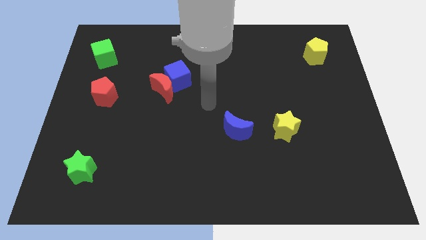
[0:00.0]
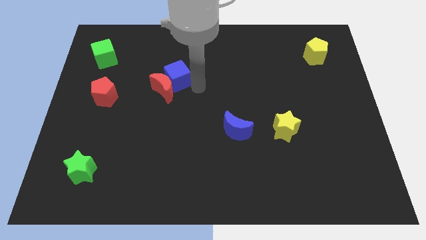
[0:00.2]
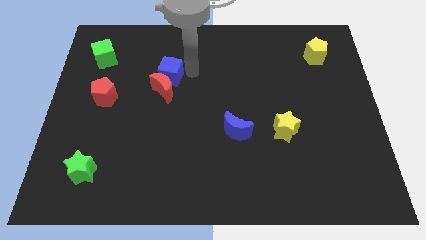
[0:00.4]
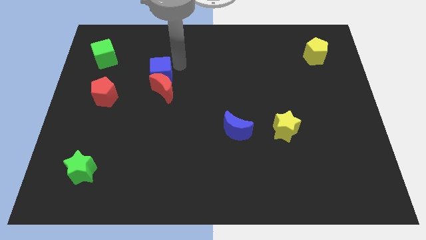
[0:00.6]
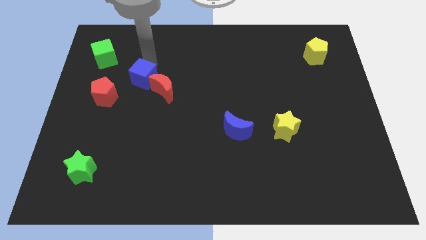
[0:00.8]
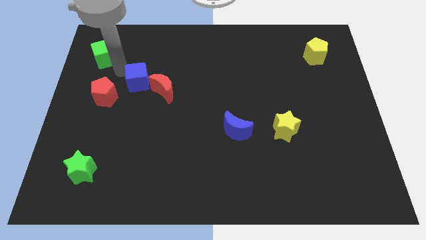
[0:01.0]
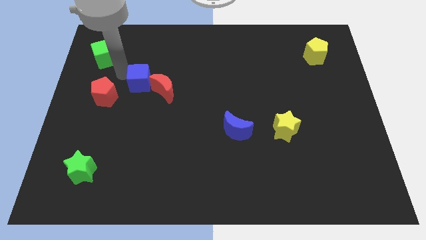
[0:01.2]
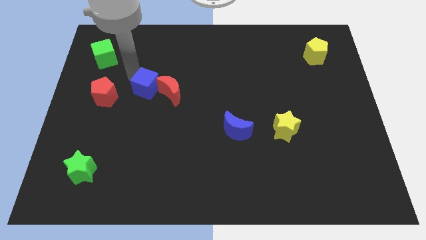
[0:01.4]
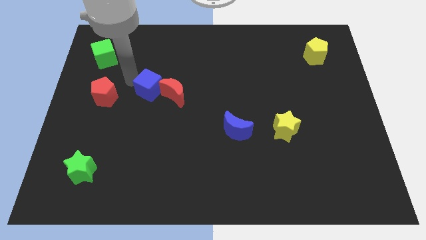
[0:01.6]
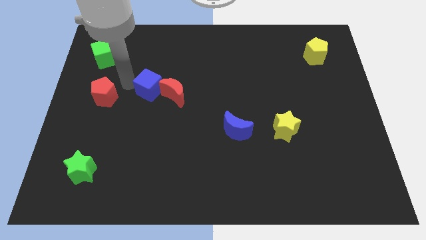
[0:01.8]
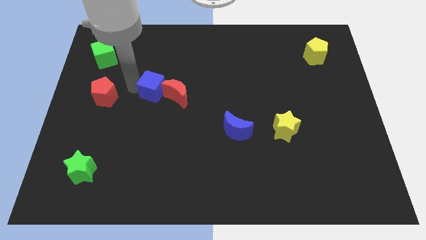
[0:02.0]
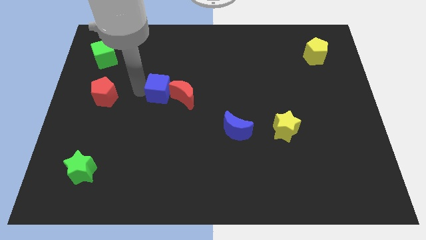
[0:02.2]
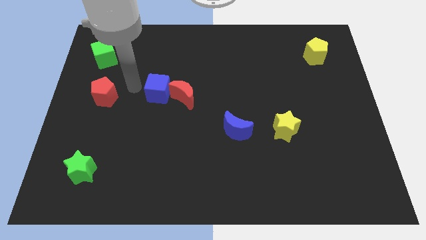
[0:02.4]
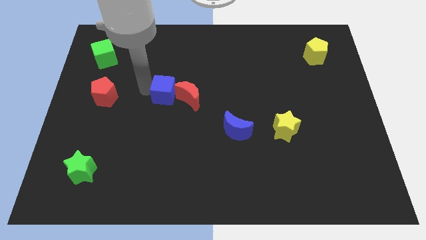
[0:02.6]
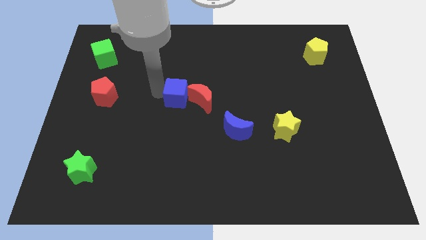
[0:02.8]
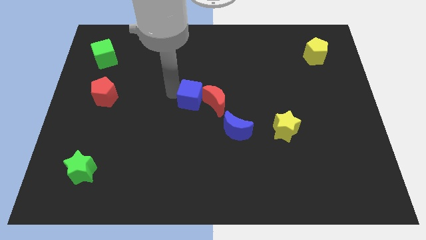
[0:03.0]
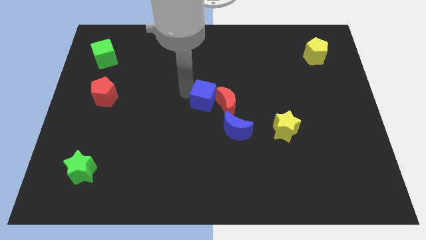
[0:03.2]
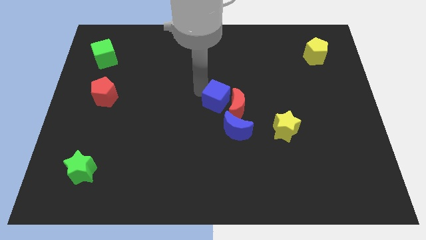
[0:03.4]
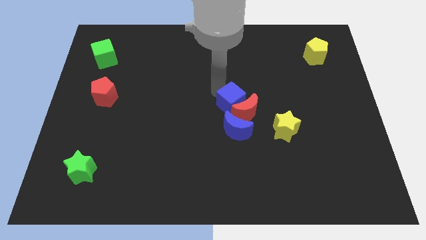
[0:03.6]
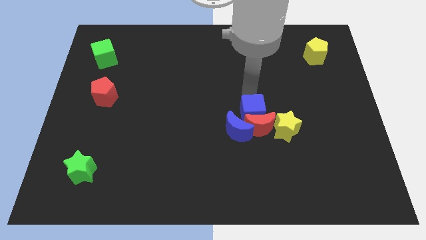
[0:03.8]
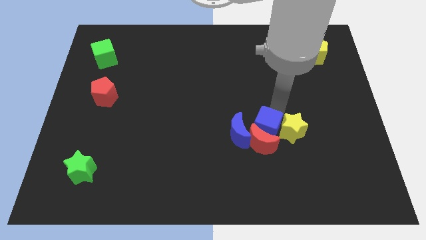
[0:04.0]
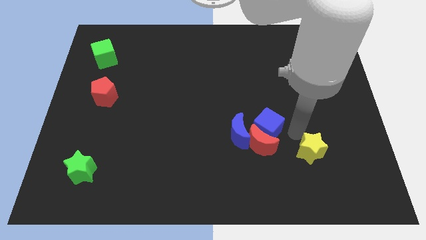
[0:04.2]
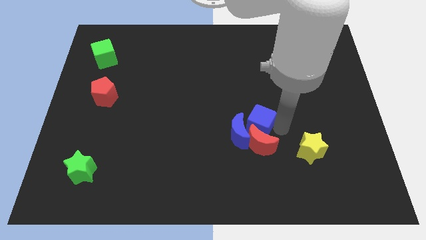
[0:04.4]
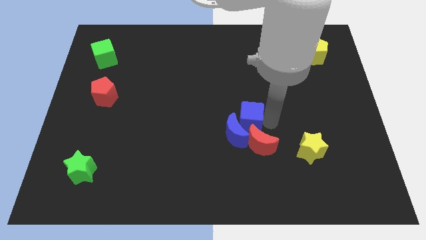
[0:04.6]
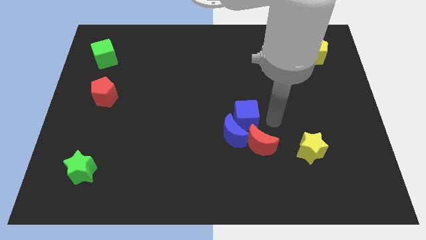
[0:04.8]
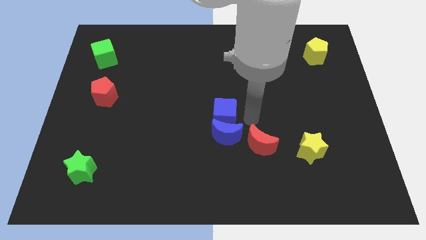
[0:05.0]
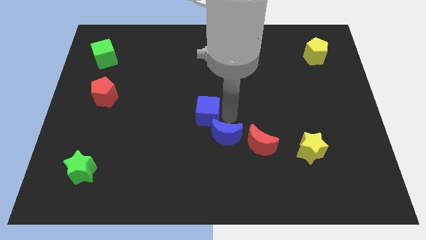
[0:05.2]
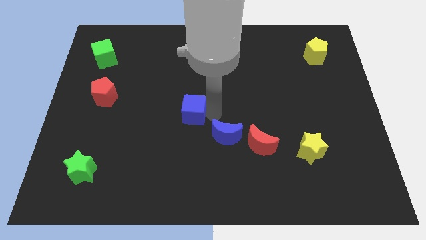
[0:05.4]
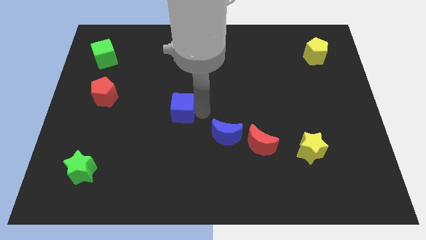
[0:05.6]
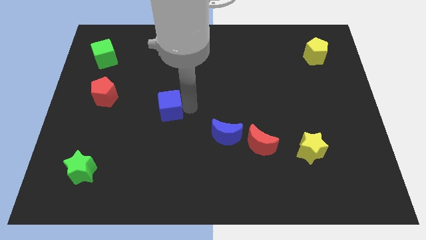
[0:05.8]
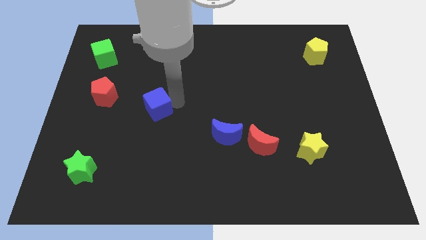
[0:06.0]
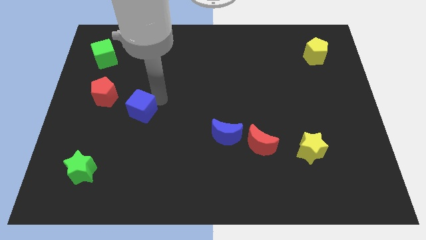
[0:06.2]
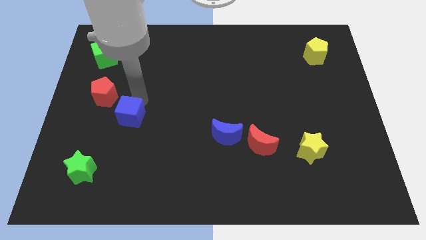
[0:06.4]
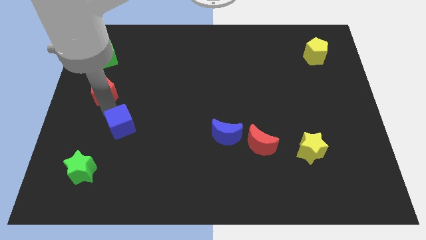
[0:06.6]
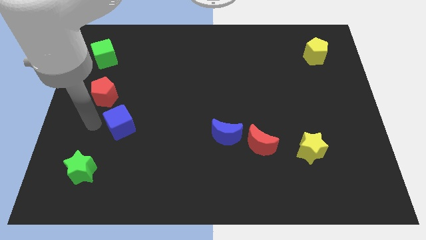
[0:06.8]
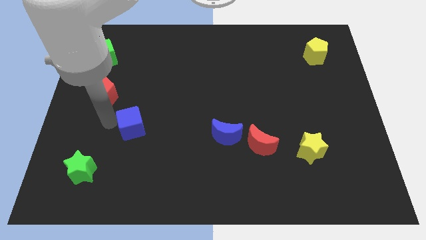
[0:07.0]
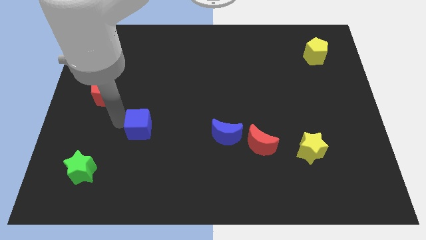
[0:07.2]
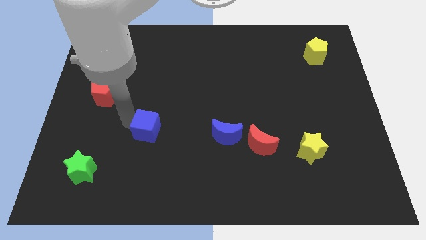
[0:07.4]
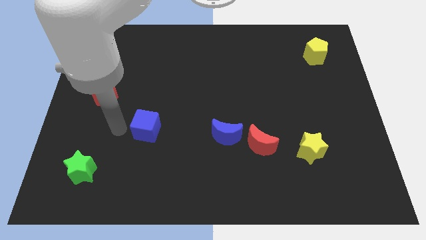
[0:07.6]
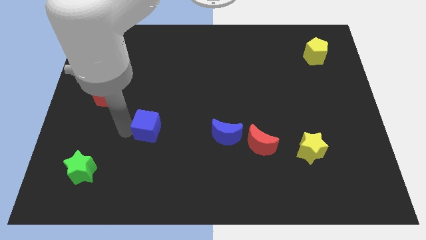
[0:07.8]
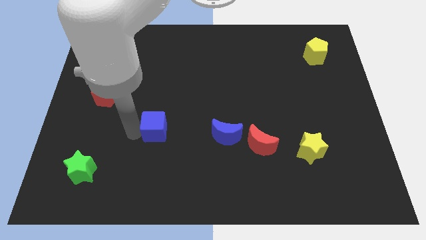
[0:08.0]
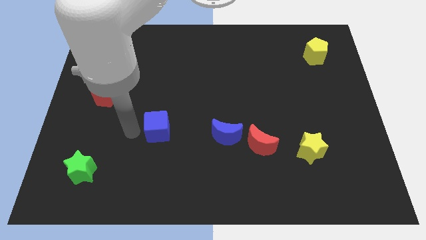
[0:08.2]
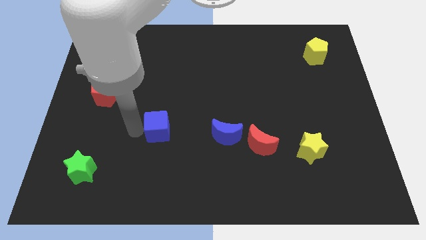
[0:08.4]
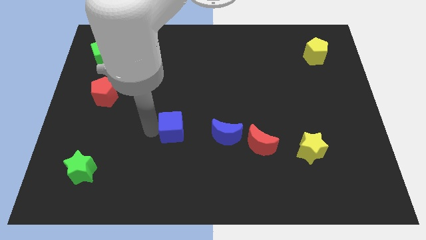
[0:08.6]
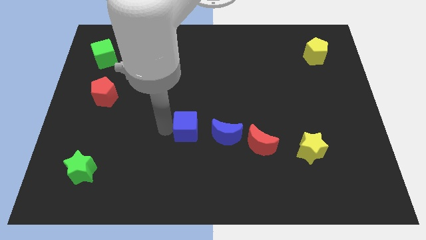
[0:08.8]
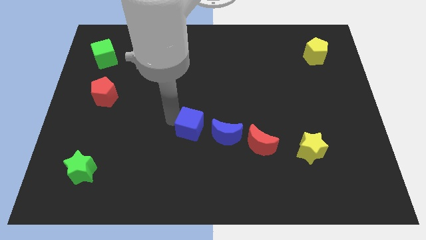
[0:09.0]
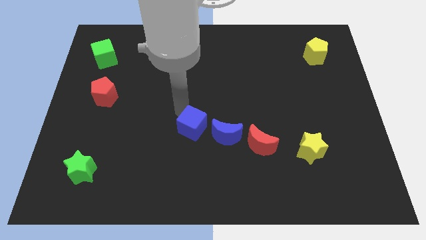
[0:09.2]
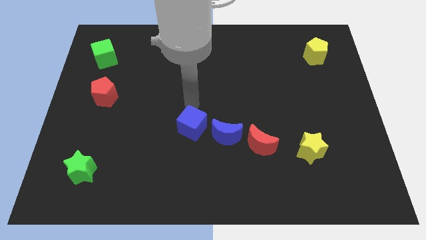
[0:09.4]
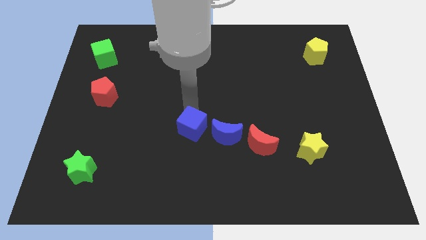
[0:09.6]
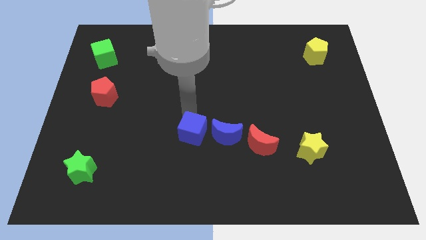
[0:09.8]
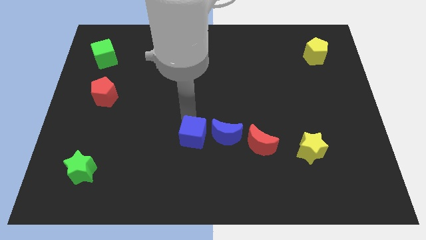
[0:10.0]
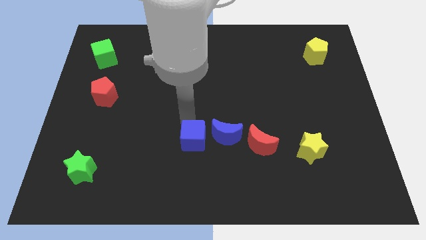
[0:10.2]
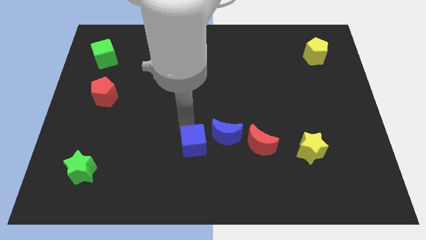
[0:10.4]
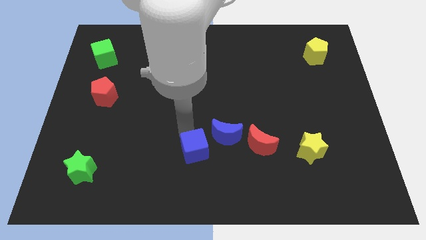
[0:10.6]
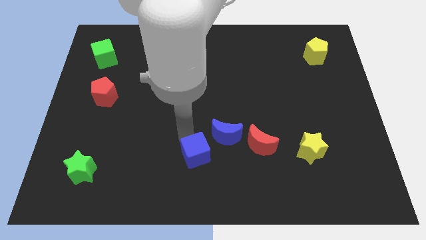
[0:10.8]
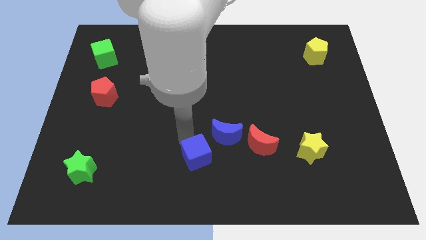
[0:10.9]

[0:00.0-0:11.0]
move the blue cube to the bottom side

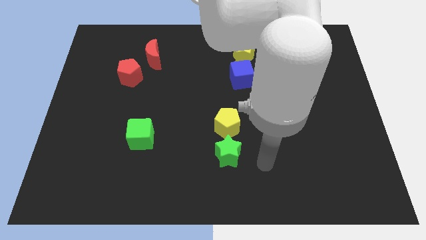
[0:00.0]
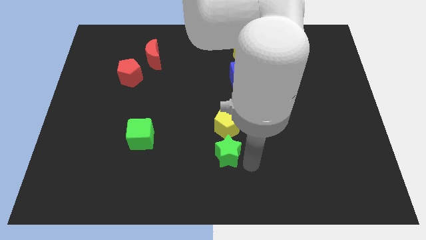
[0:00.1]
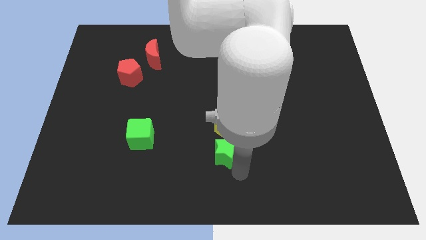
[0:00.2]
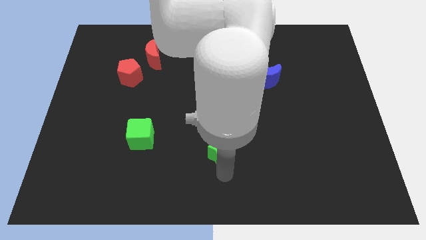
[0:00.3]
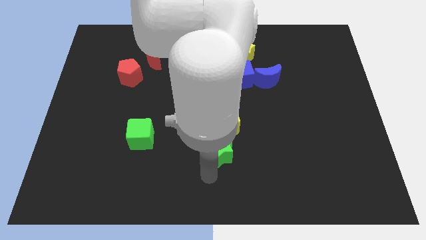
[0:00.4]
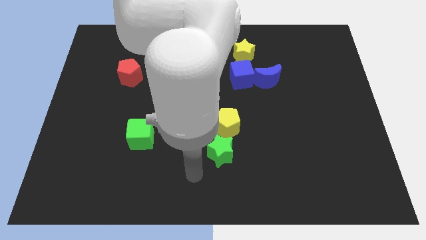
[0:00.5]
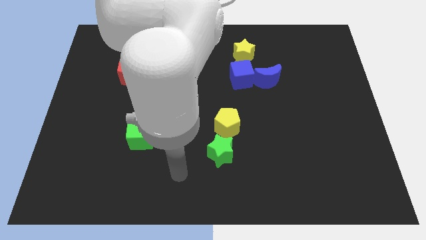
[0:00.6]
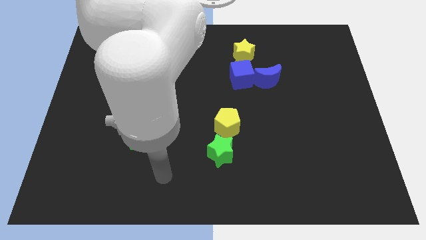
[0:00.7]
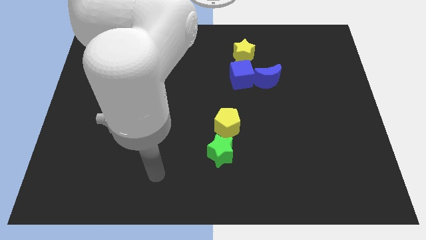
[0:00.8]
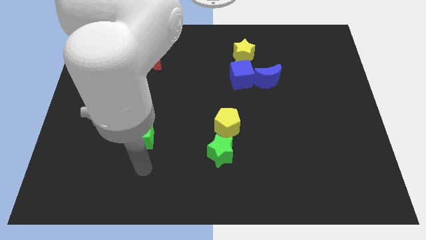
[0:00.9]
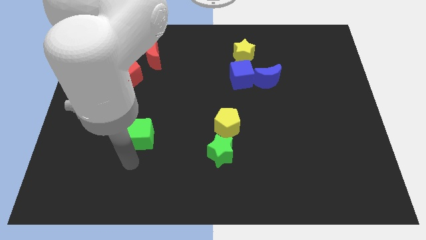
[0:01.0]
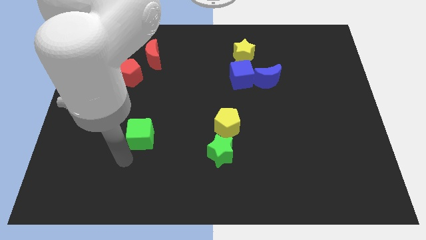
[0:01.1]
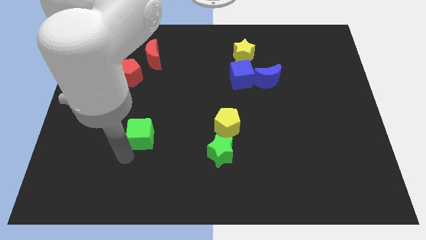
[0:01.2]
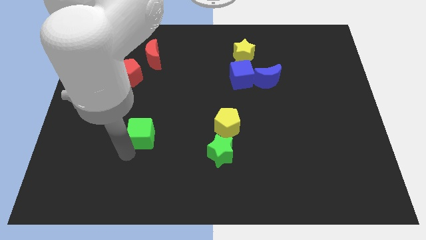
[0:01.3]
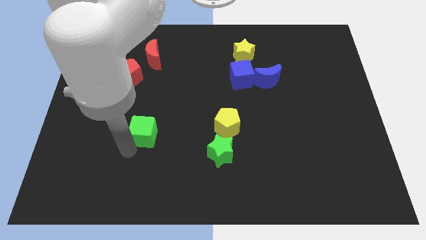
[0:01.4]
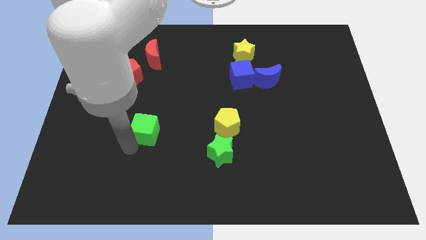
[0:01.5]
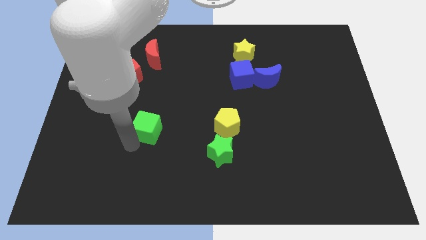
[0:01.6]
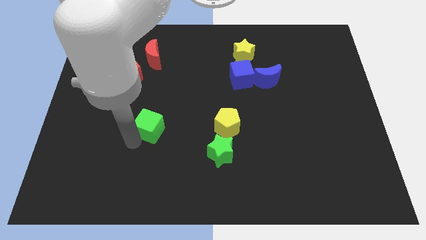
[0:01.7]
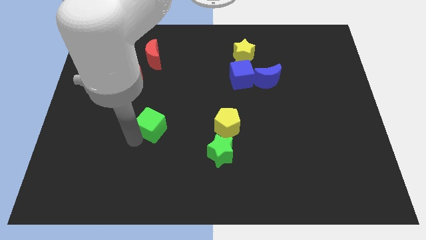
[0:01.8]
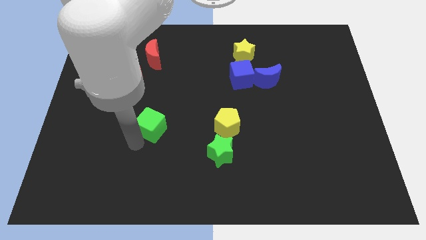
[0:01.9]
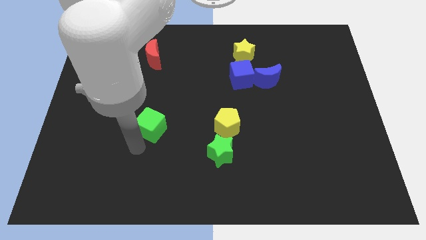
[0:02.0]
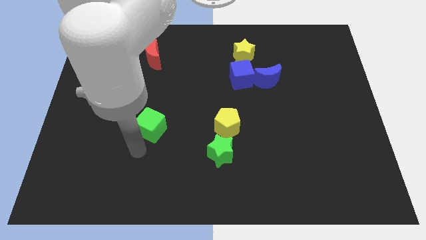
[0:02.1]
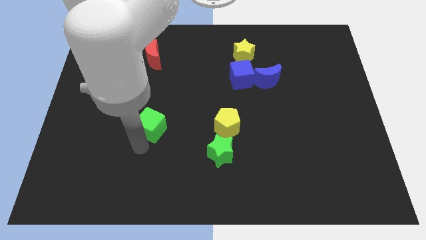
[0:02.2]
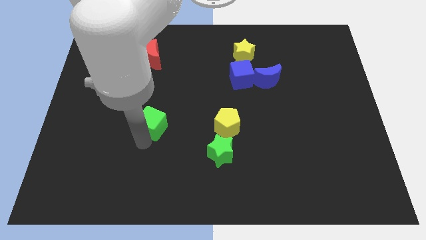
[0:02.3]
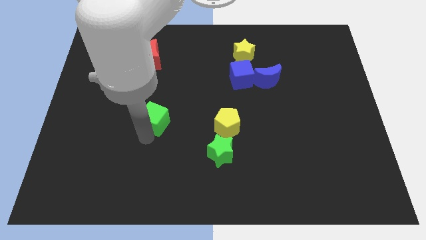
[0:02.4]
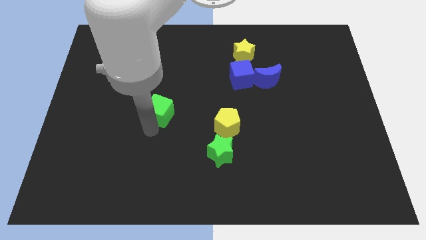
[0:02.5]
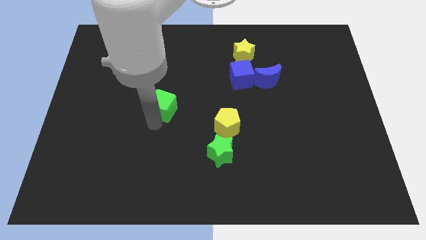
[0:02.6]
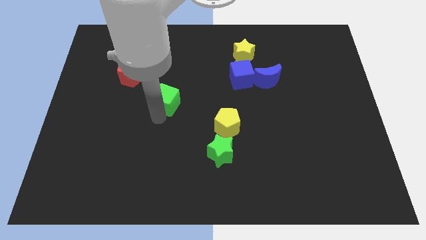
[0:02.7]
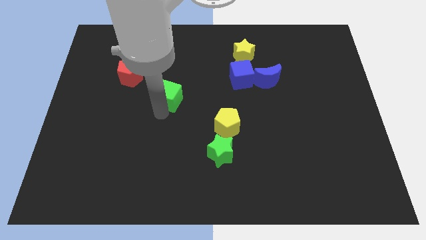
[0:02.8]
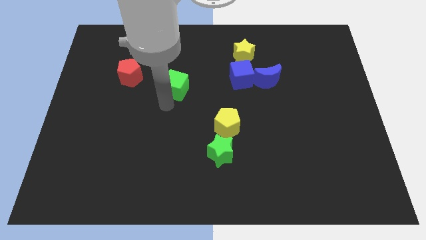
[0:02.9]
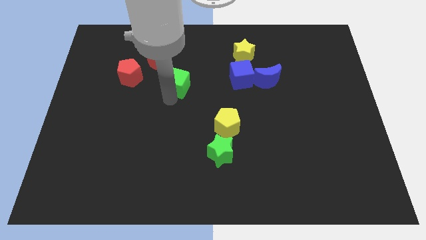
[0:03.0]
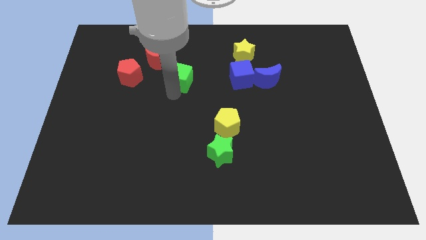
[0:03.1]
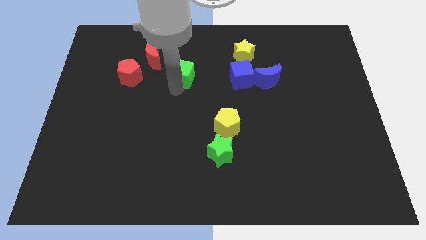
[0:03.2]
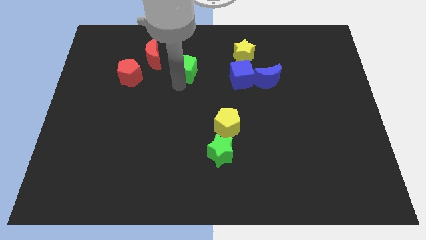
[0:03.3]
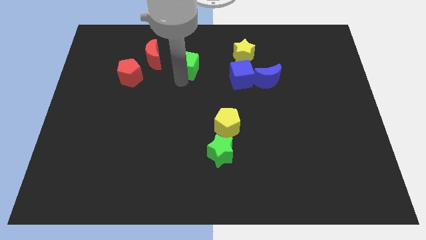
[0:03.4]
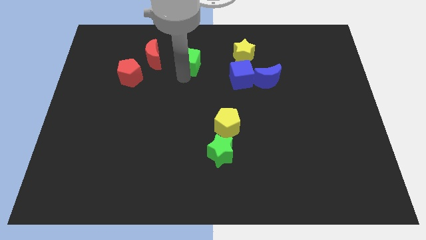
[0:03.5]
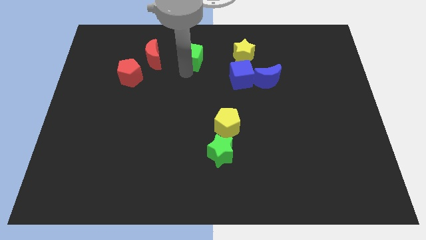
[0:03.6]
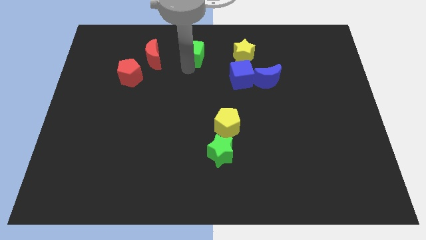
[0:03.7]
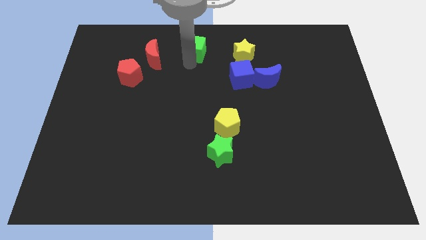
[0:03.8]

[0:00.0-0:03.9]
slide the green cube to the top side
